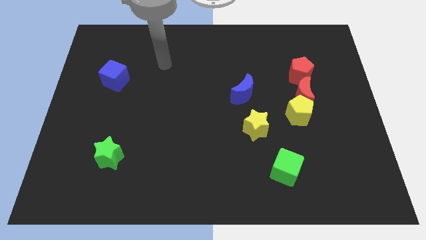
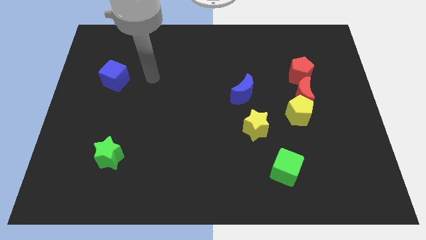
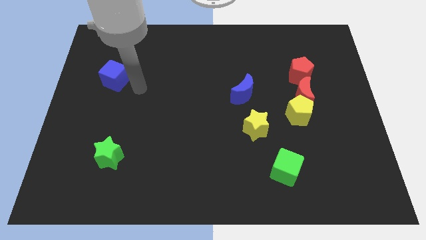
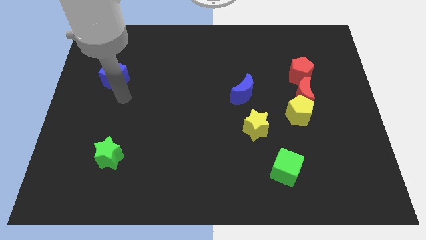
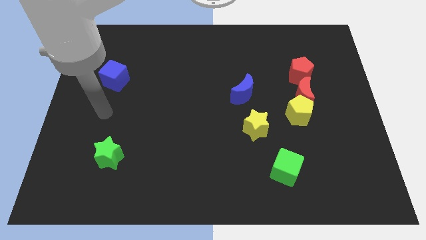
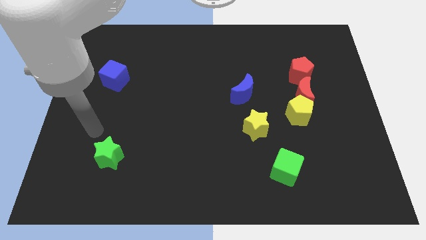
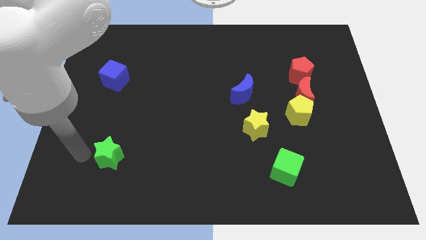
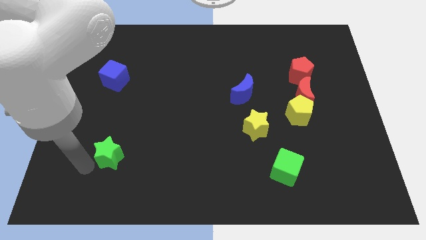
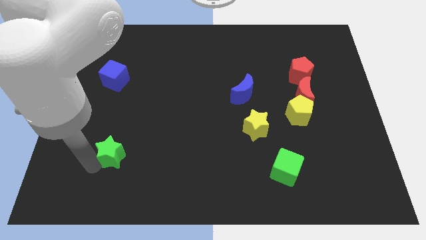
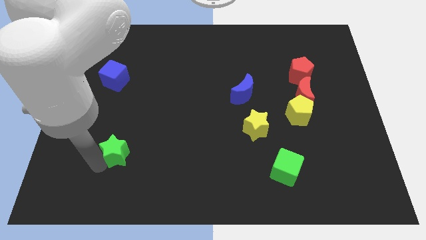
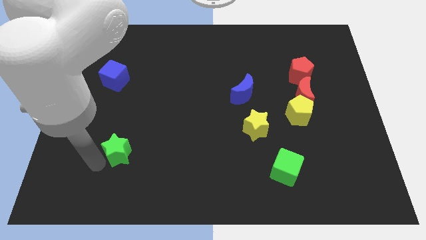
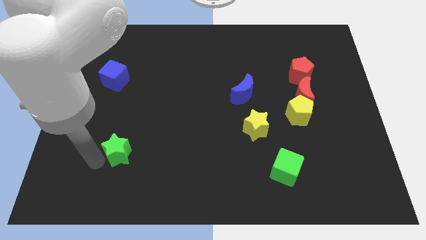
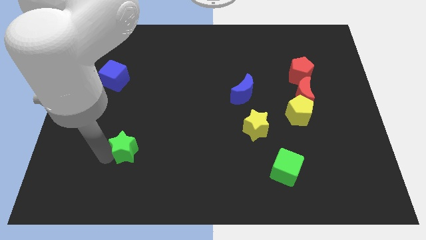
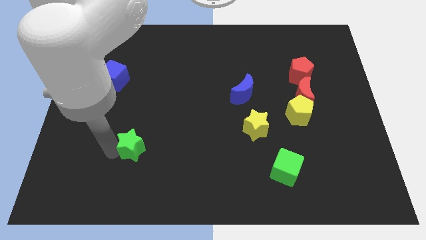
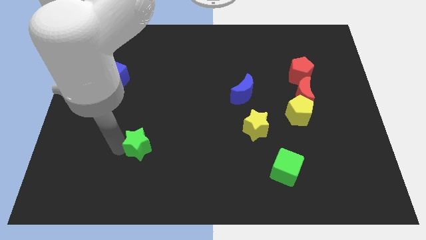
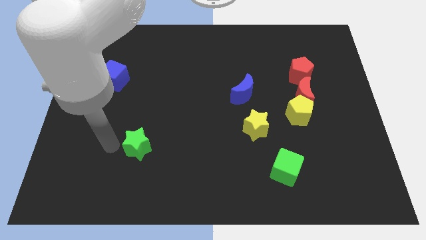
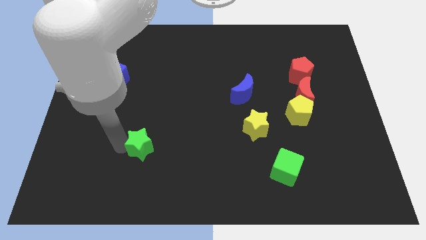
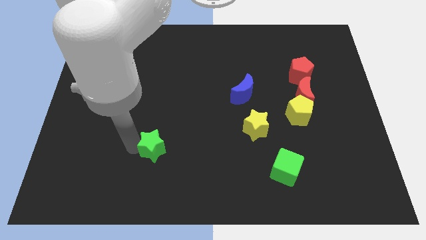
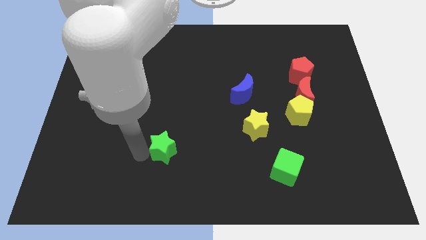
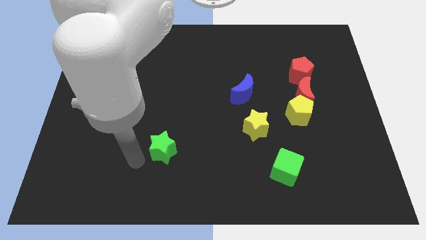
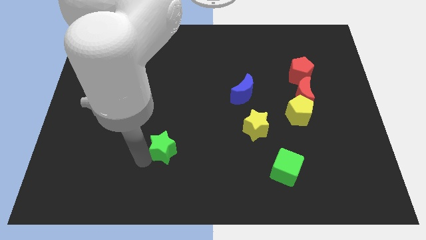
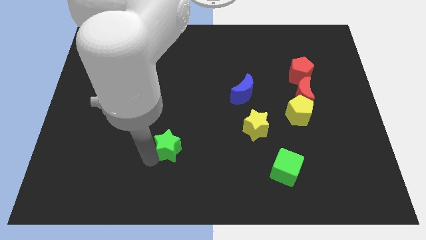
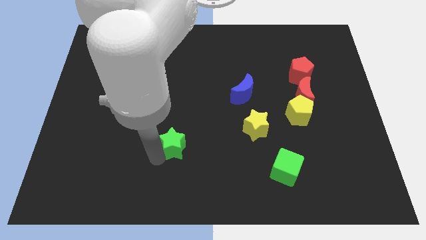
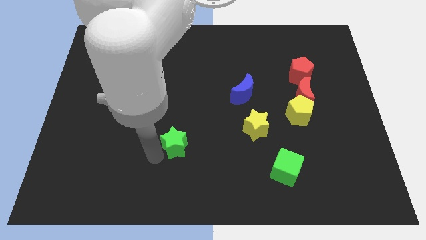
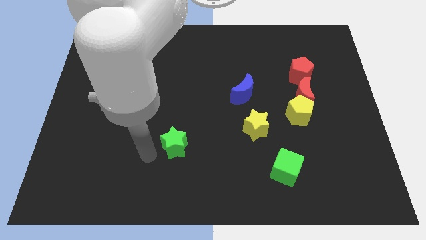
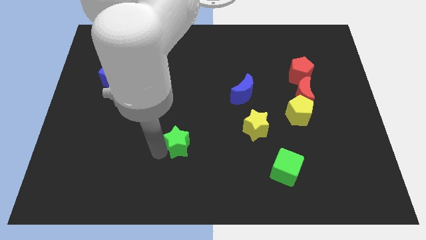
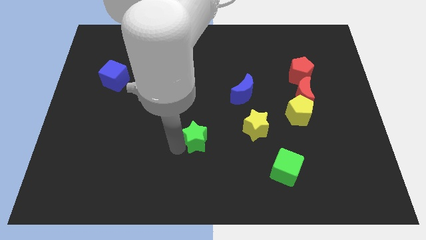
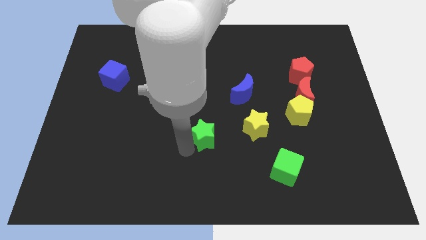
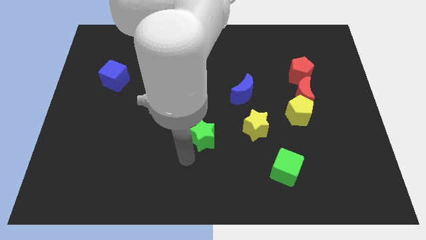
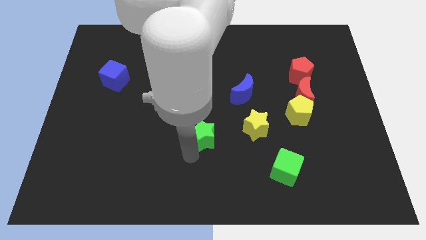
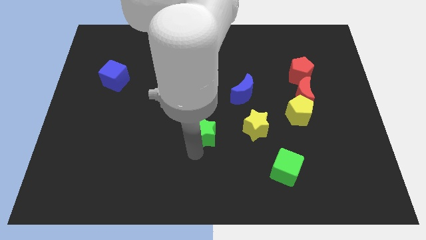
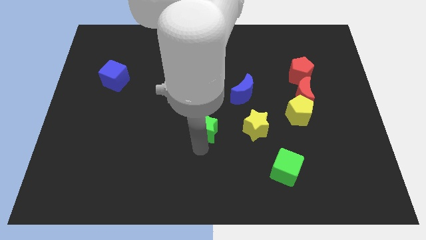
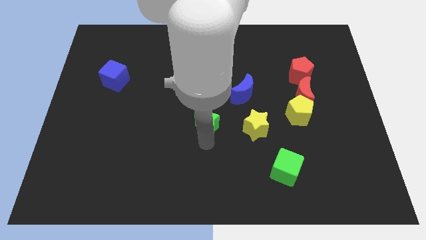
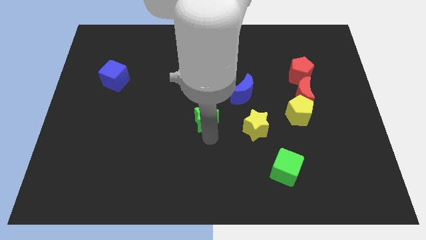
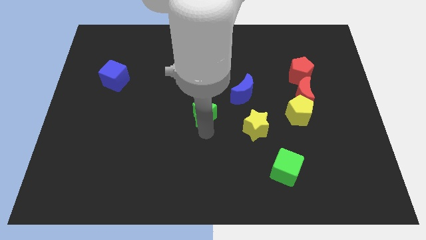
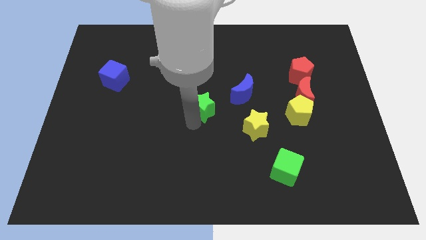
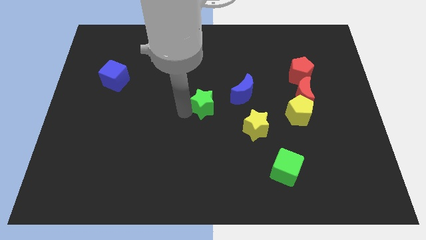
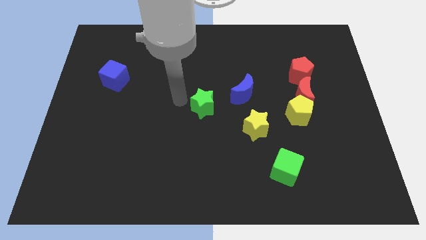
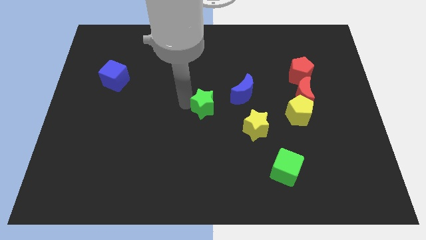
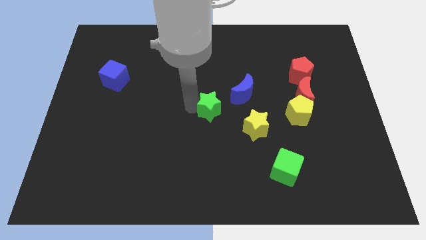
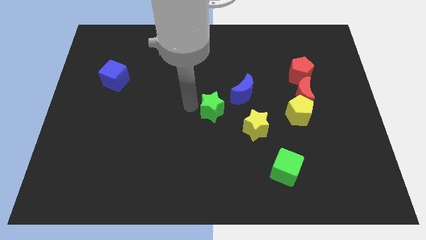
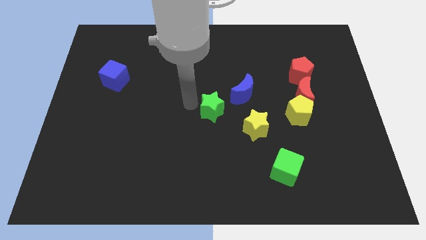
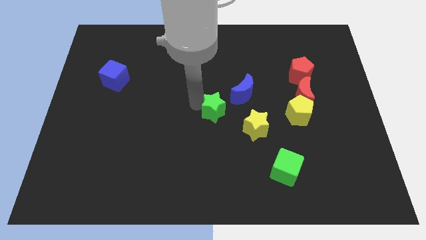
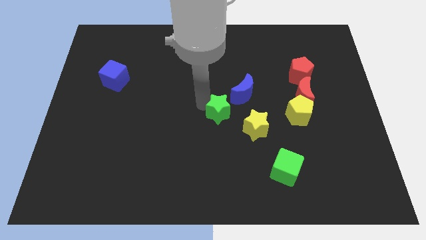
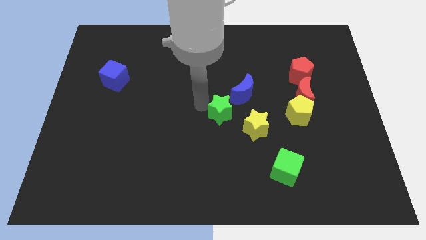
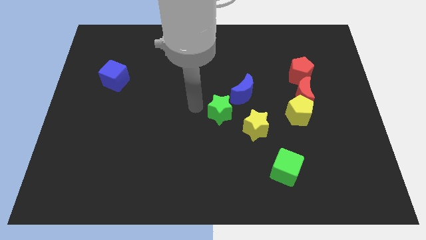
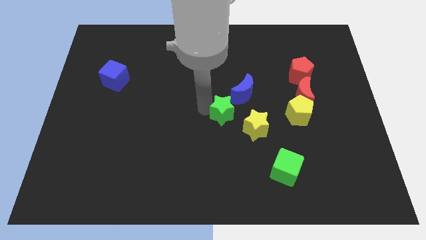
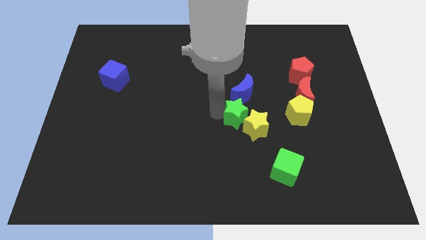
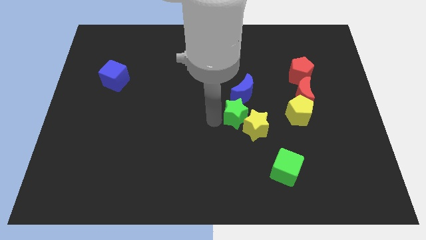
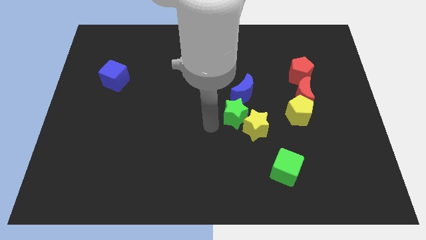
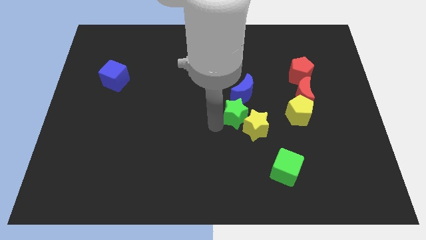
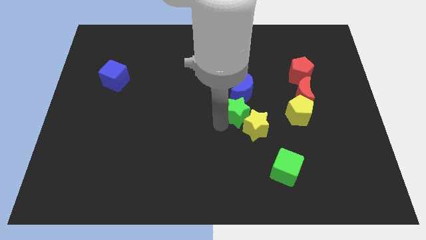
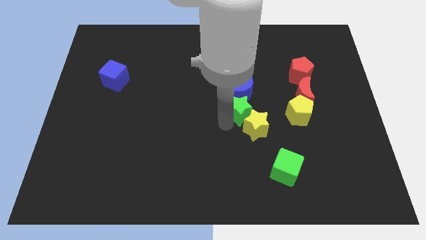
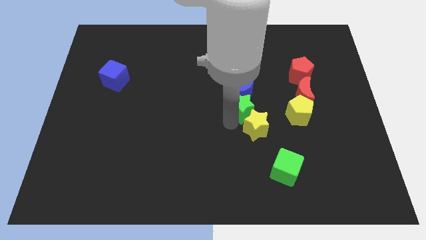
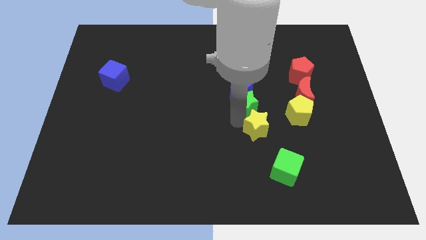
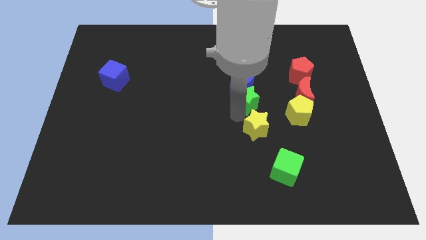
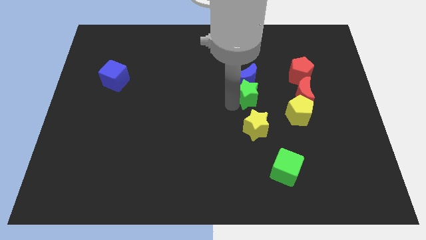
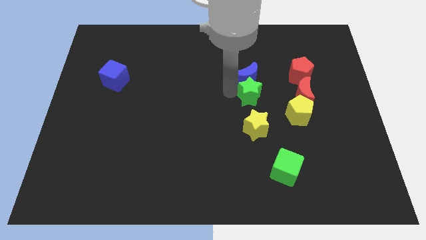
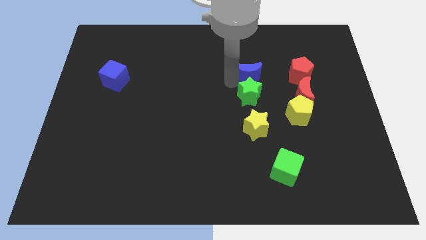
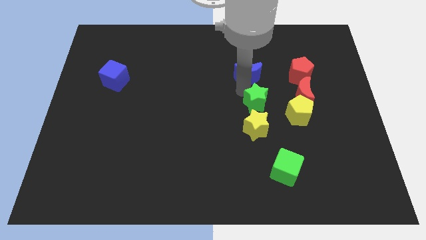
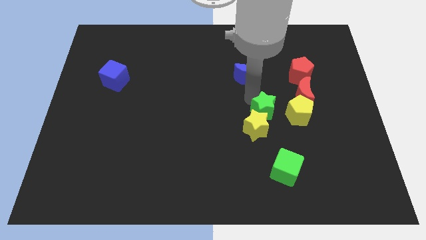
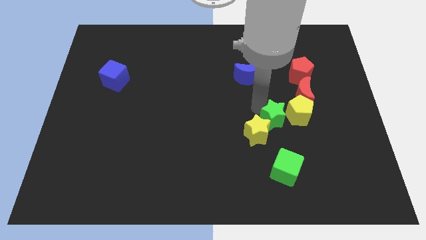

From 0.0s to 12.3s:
slide the green star next to the yellow pentagon

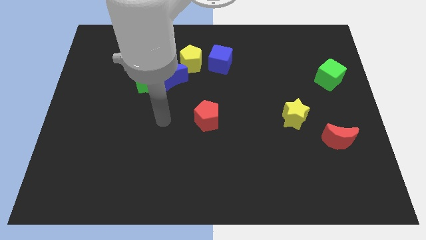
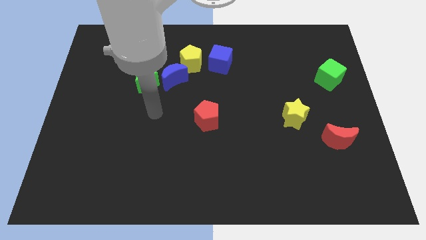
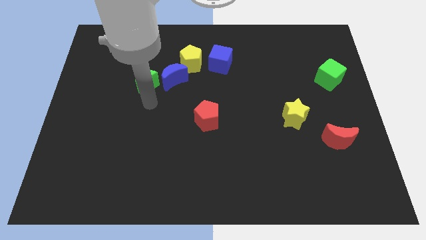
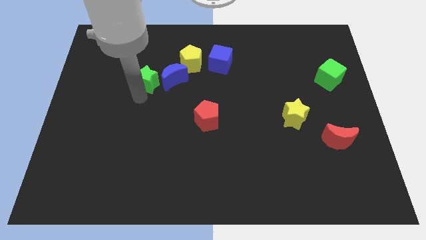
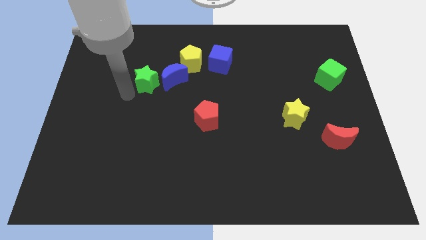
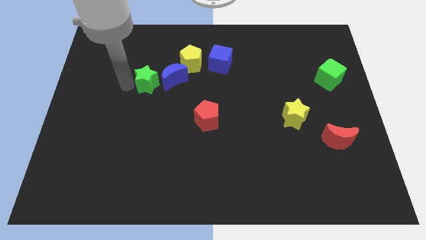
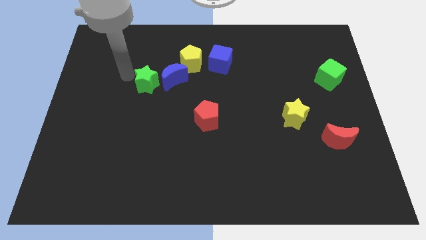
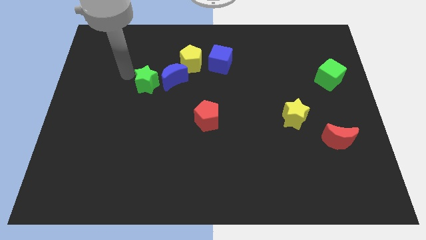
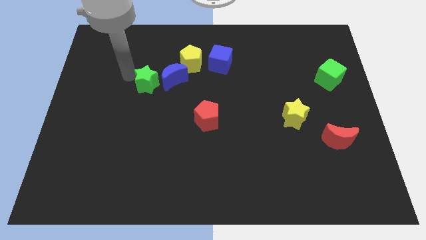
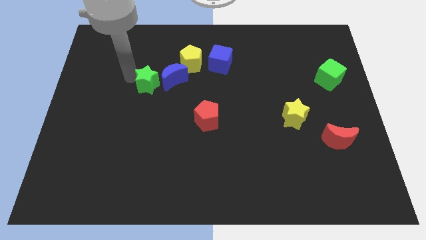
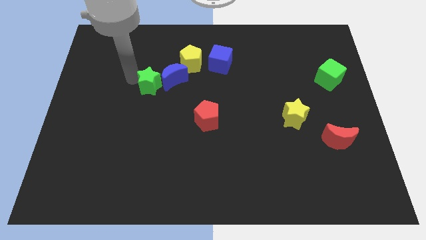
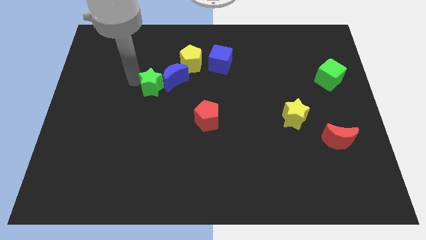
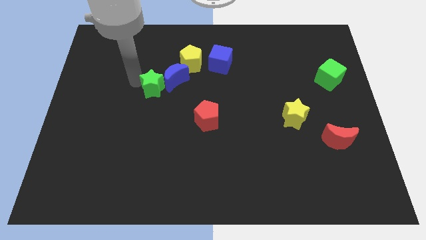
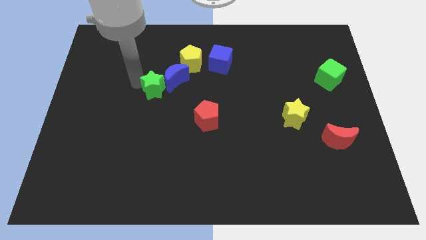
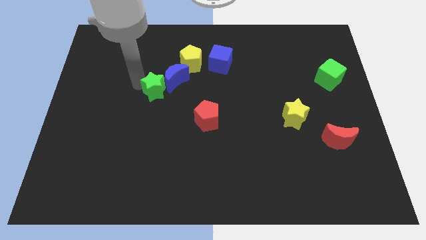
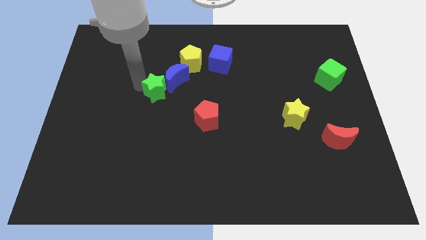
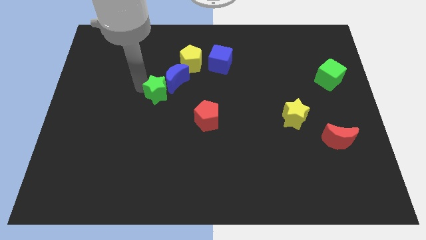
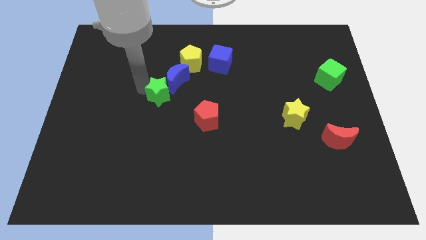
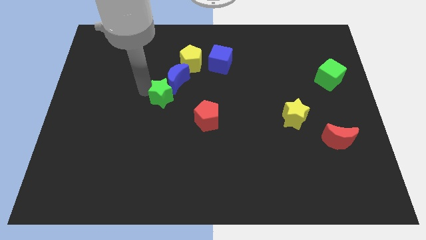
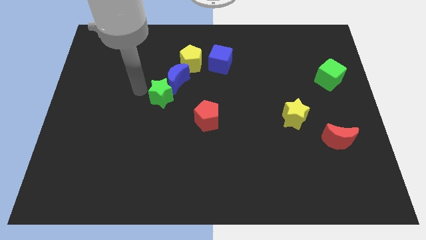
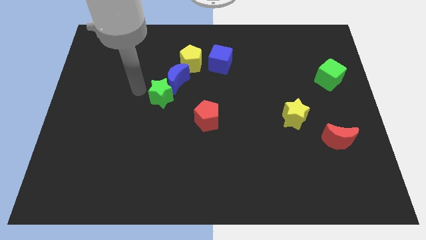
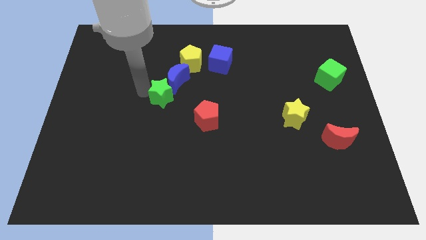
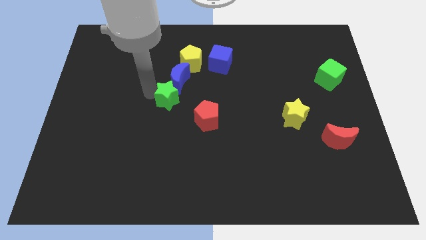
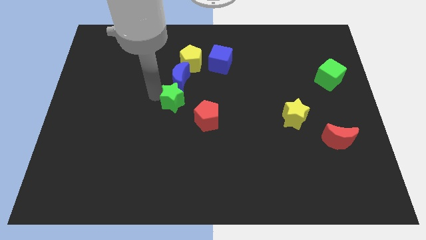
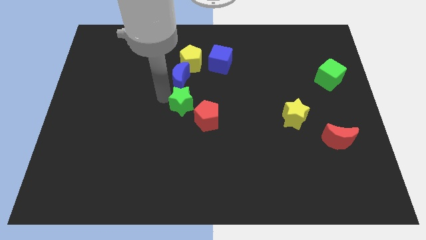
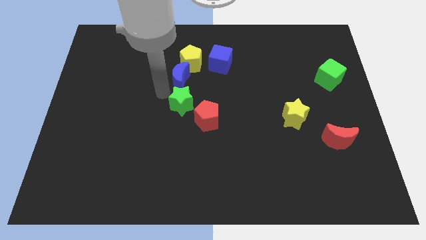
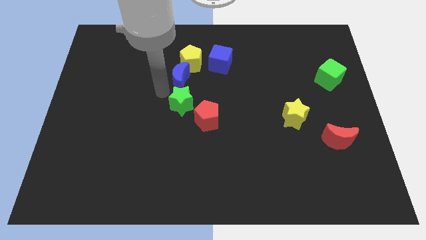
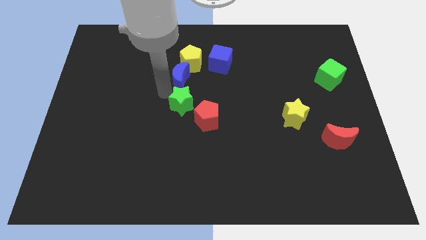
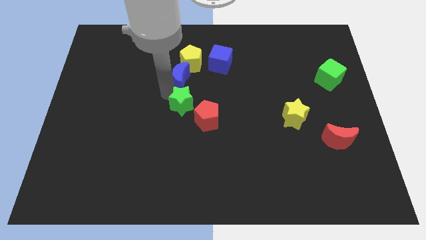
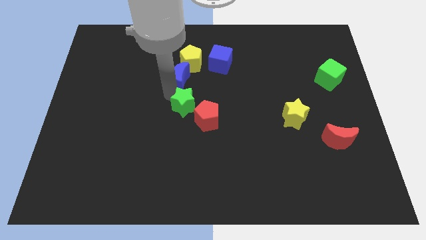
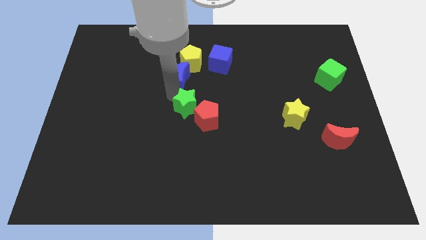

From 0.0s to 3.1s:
put the green star close to the red pentagon
